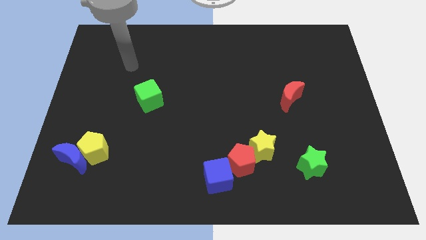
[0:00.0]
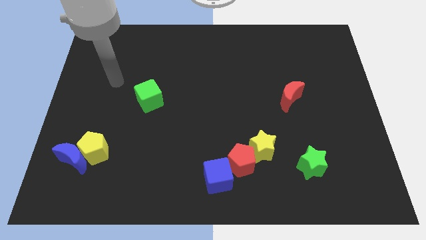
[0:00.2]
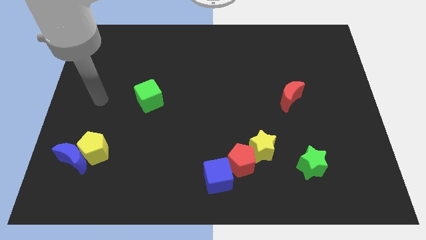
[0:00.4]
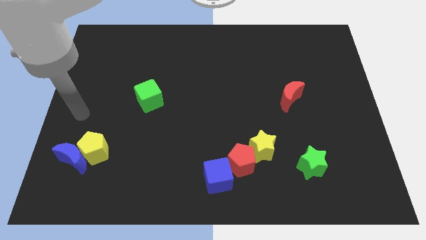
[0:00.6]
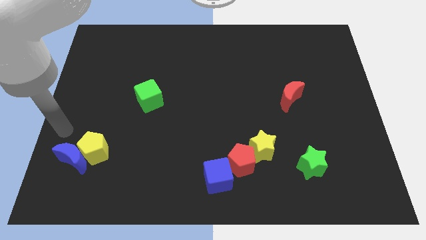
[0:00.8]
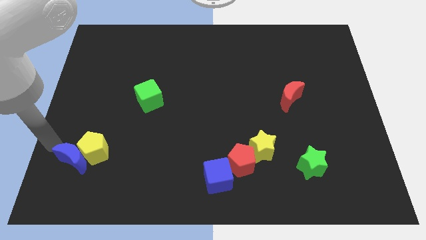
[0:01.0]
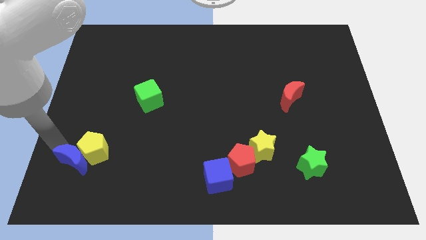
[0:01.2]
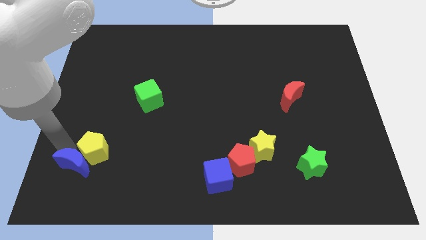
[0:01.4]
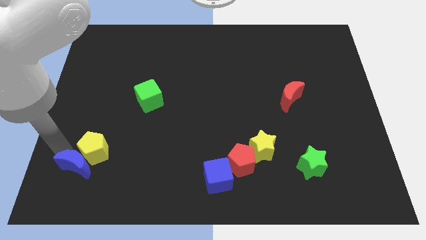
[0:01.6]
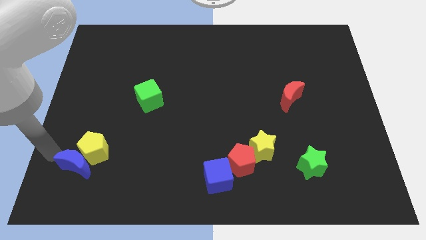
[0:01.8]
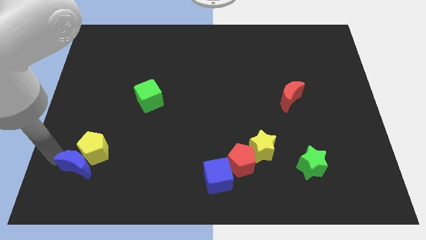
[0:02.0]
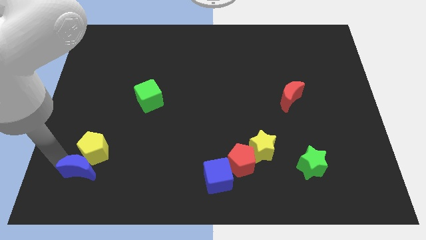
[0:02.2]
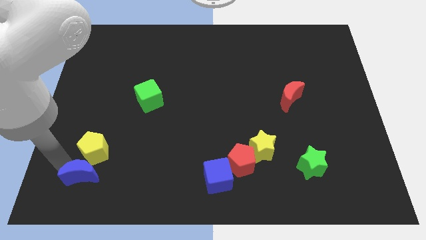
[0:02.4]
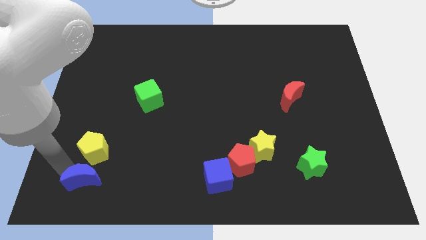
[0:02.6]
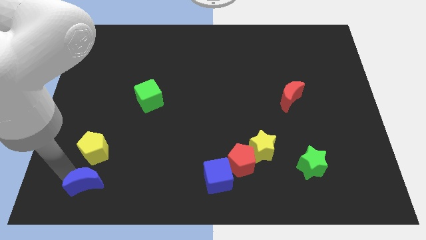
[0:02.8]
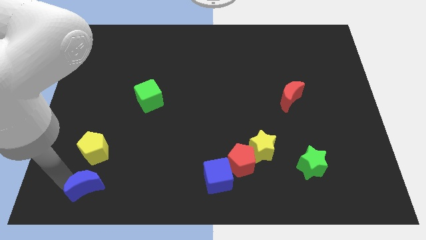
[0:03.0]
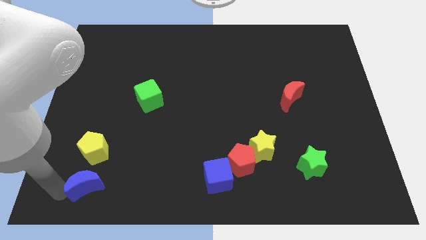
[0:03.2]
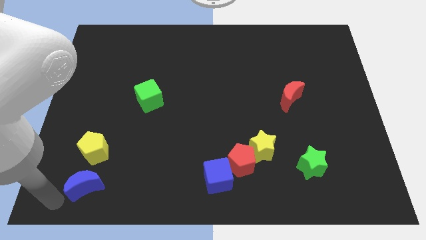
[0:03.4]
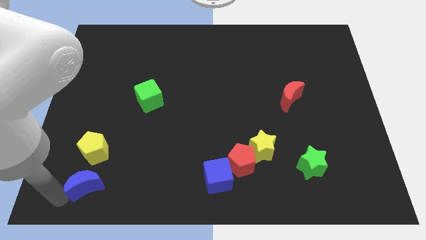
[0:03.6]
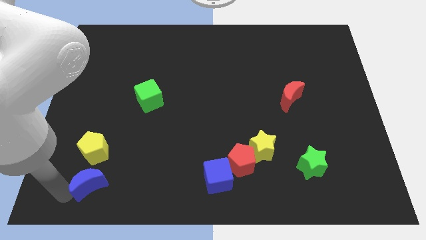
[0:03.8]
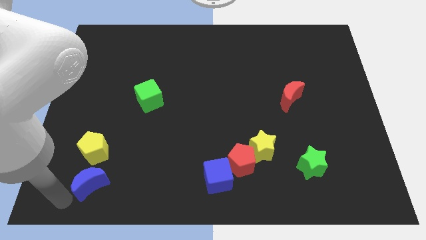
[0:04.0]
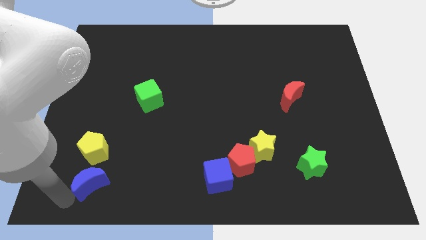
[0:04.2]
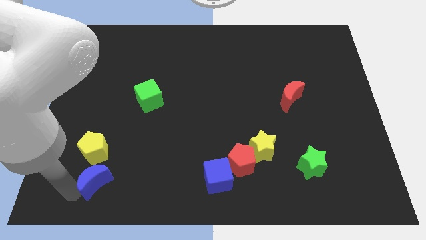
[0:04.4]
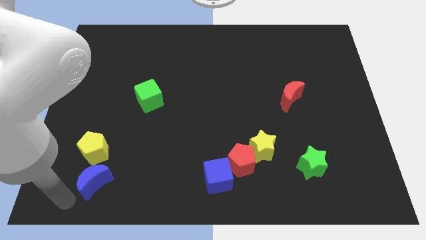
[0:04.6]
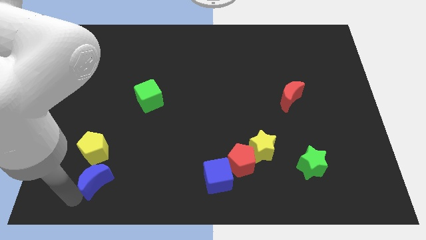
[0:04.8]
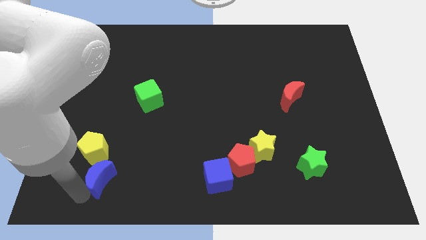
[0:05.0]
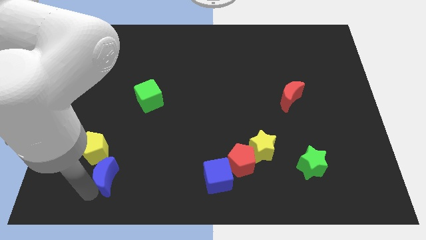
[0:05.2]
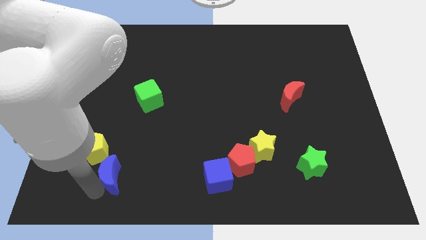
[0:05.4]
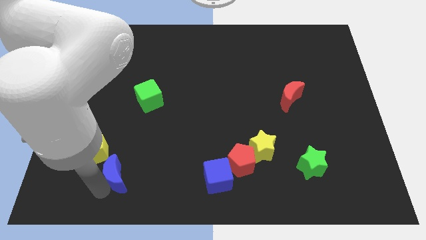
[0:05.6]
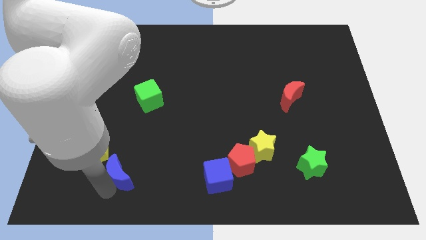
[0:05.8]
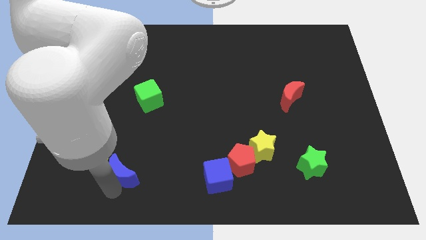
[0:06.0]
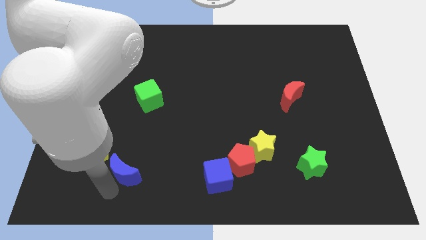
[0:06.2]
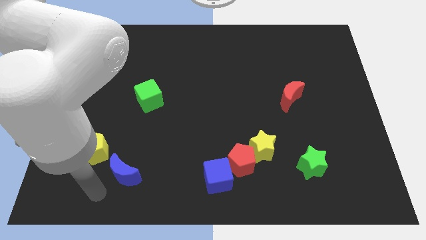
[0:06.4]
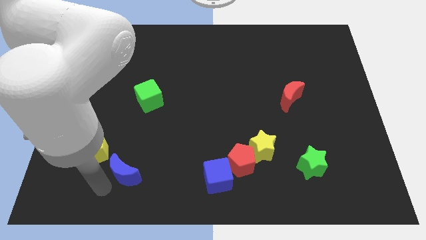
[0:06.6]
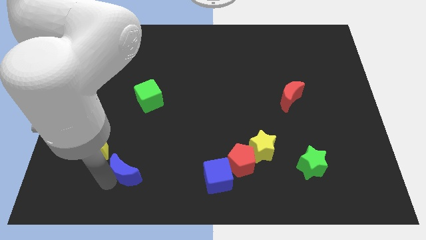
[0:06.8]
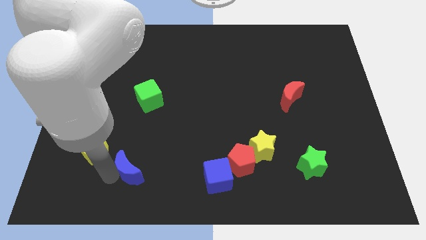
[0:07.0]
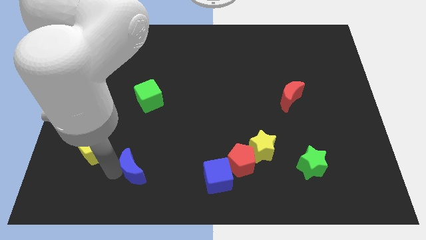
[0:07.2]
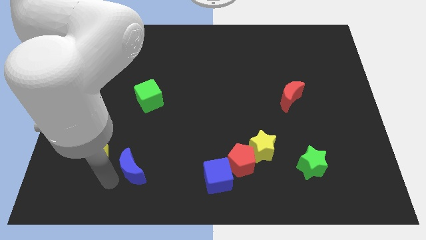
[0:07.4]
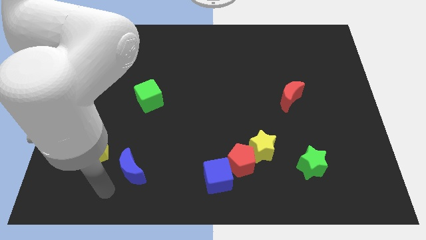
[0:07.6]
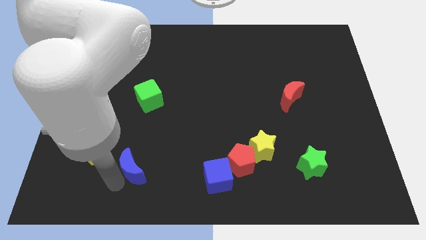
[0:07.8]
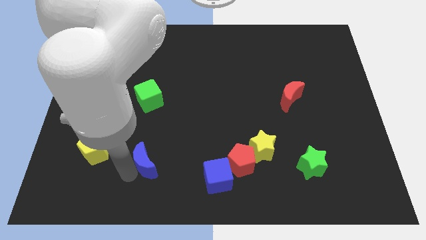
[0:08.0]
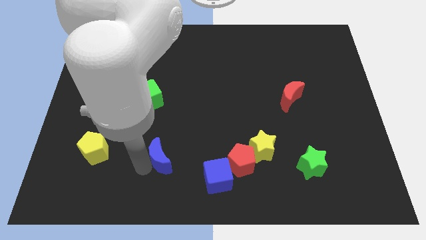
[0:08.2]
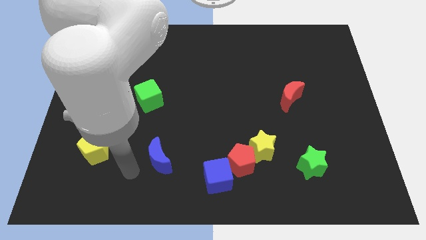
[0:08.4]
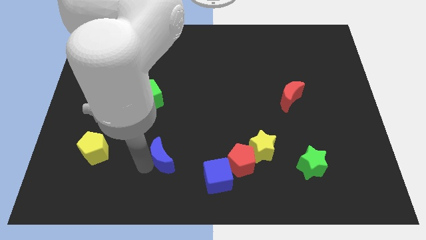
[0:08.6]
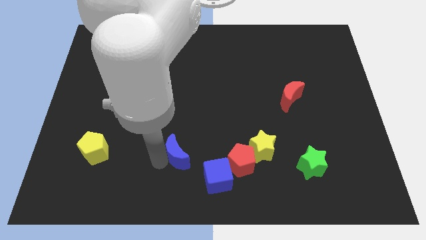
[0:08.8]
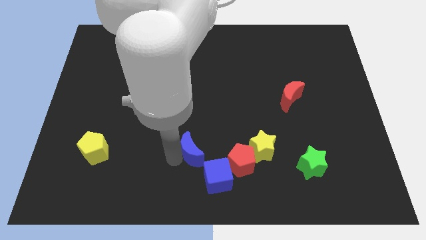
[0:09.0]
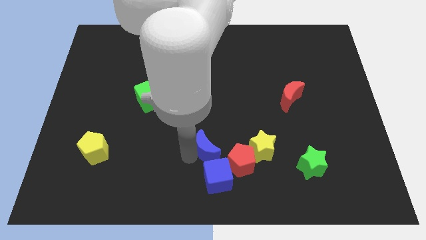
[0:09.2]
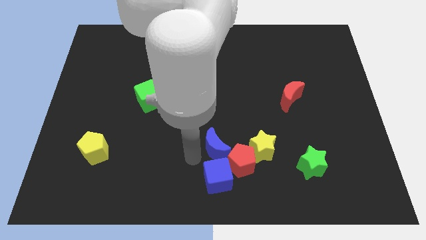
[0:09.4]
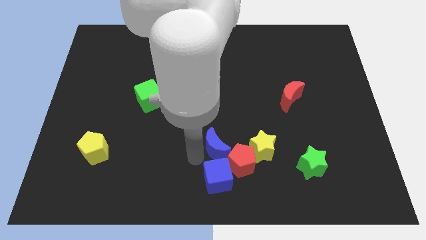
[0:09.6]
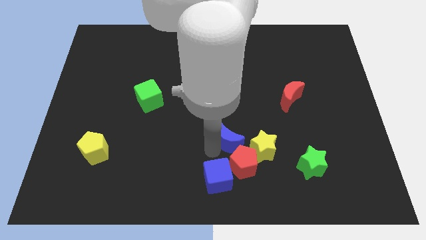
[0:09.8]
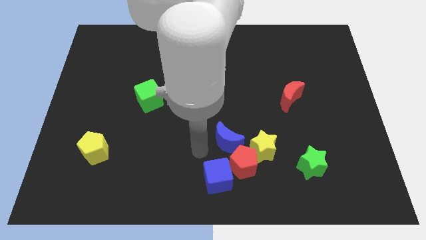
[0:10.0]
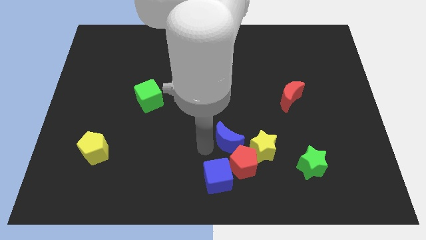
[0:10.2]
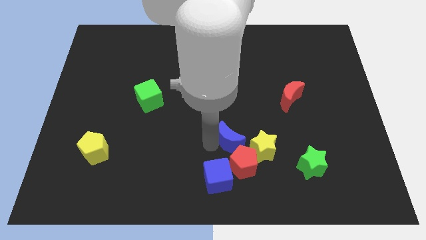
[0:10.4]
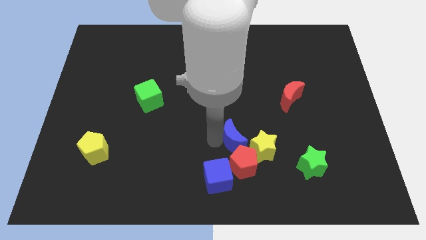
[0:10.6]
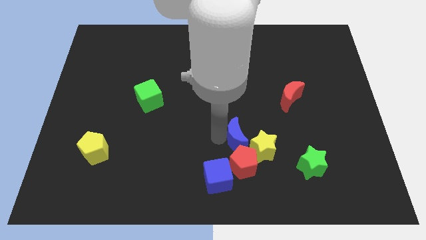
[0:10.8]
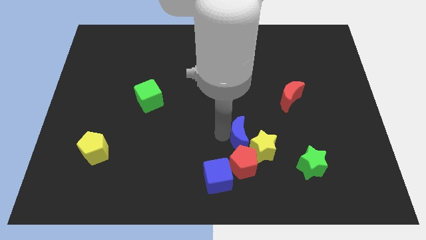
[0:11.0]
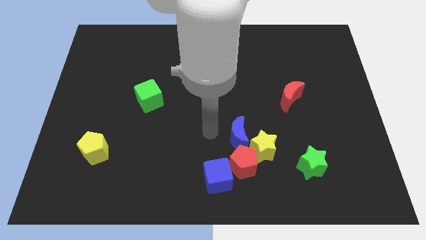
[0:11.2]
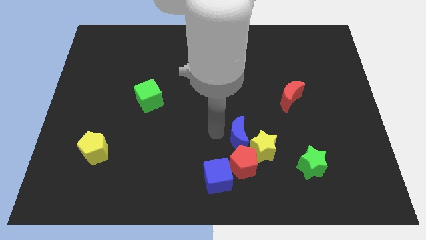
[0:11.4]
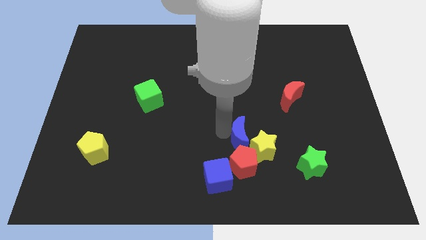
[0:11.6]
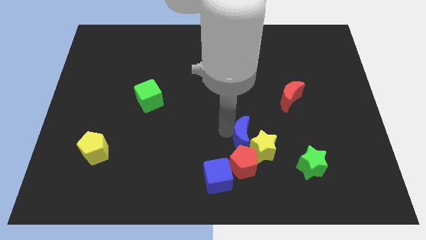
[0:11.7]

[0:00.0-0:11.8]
put the blue moon to the top right of the red pentagon
